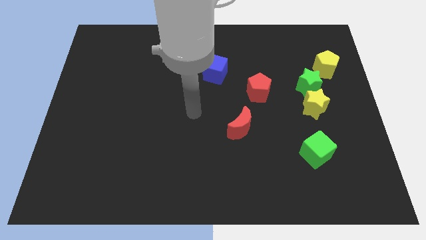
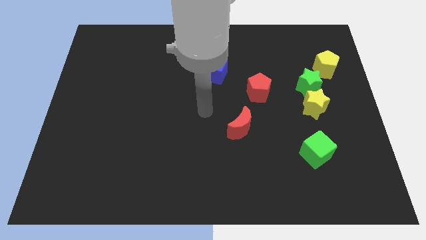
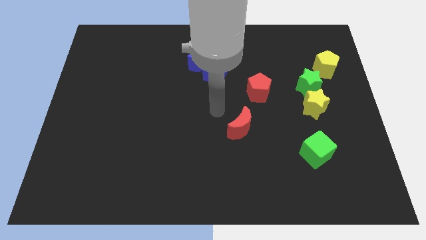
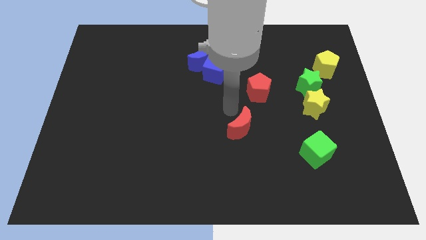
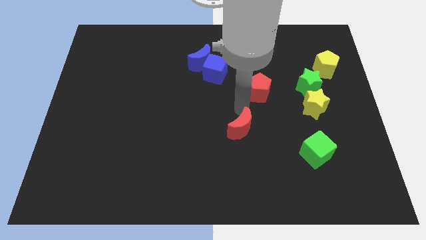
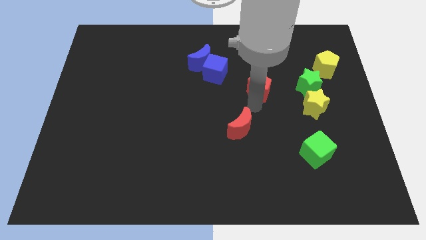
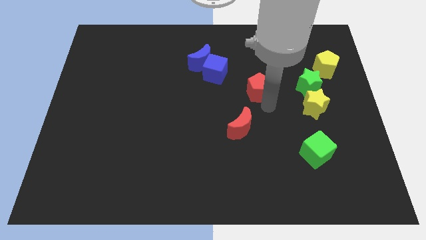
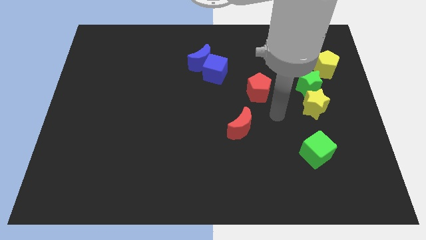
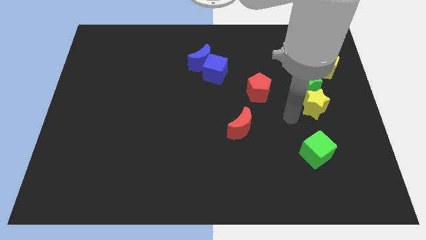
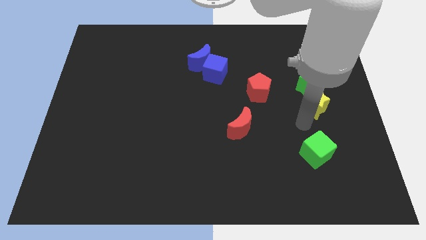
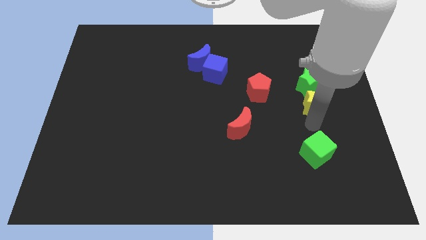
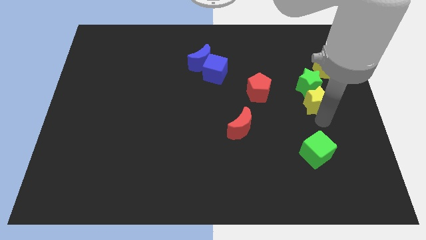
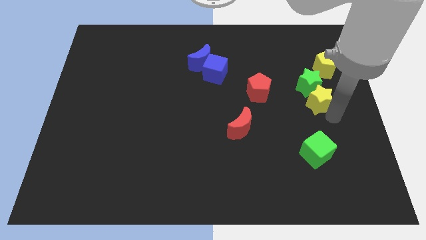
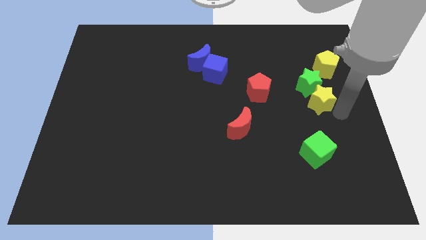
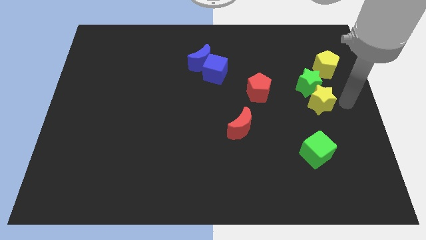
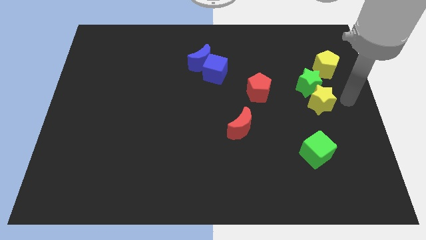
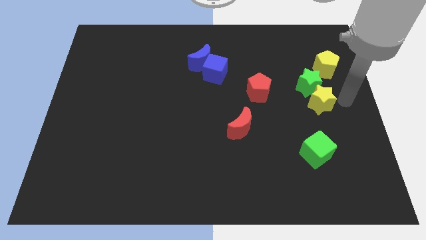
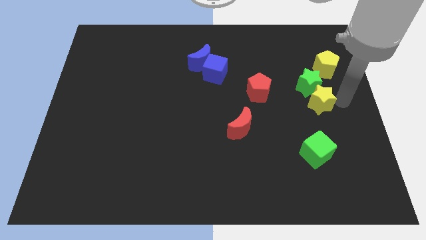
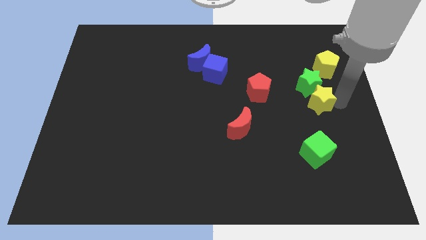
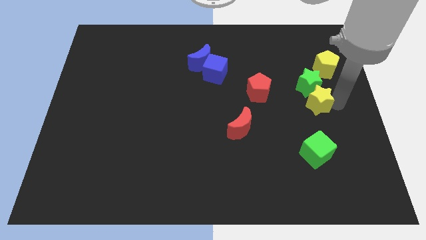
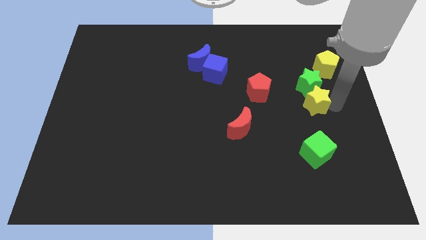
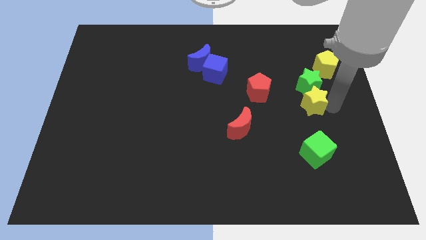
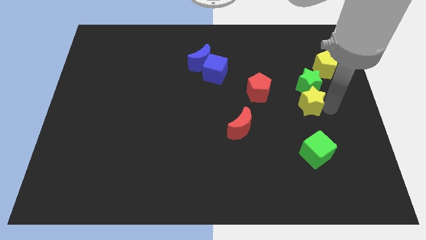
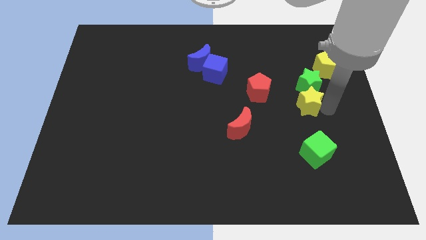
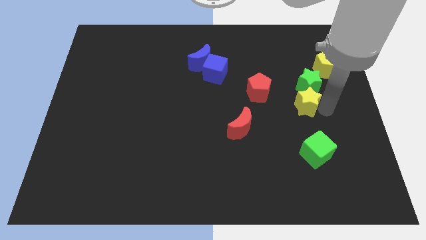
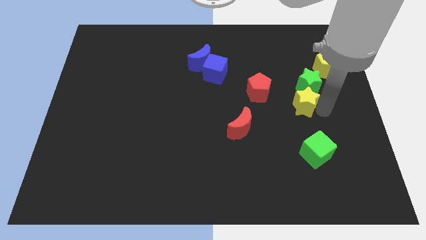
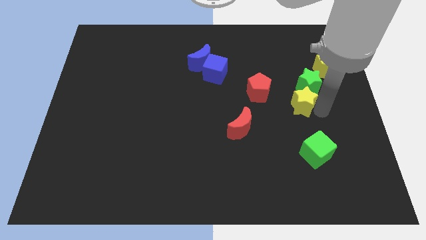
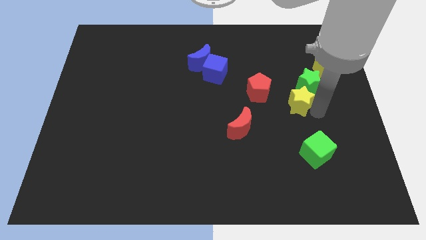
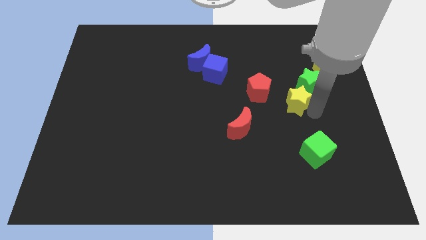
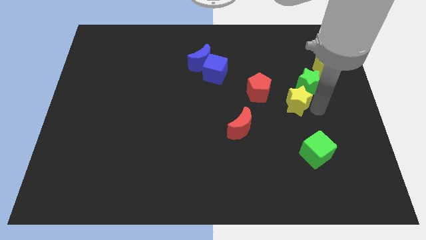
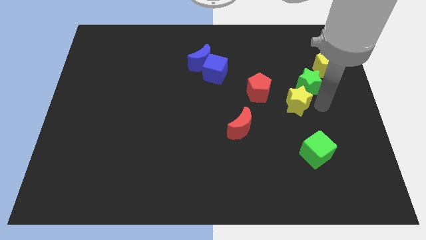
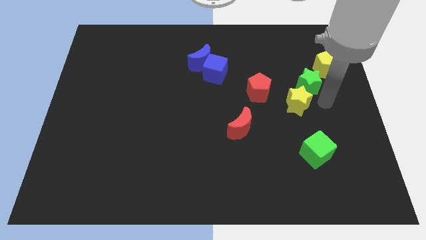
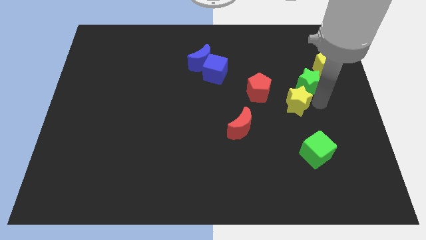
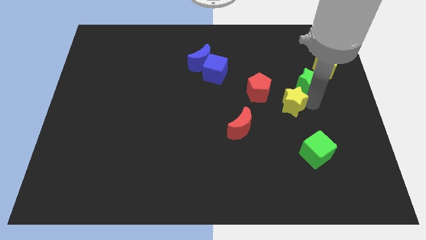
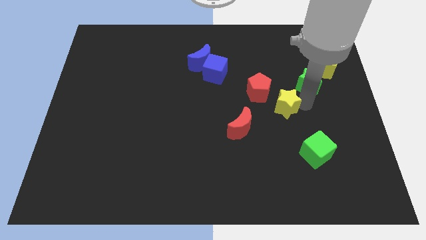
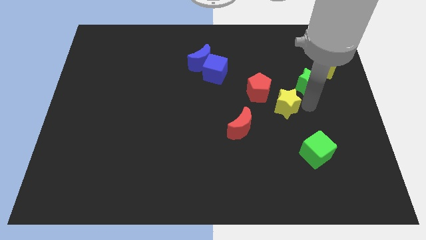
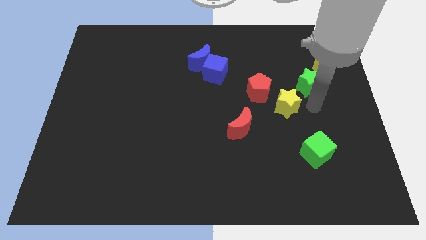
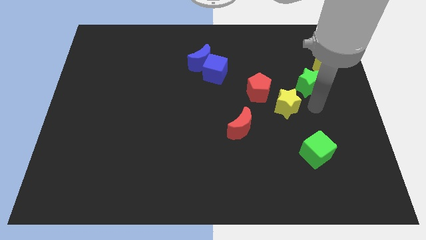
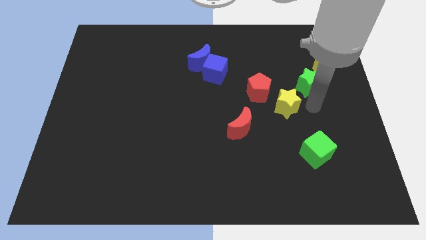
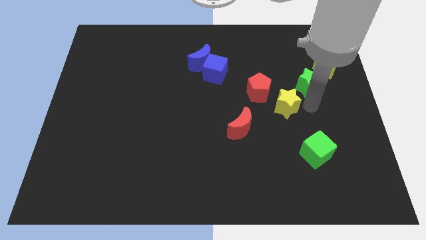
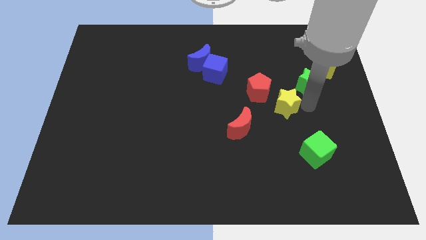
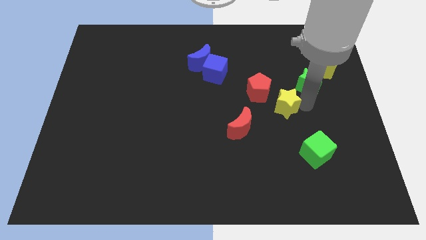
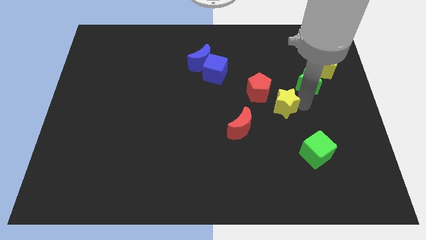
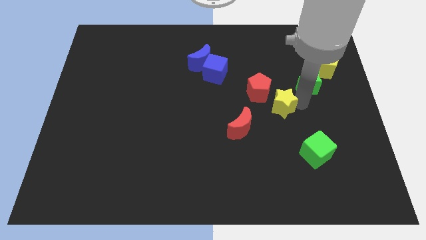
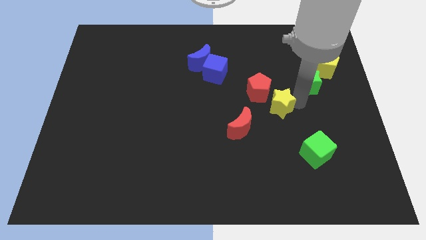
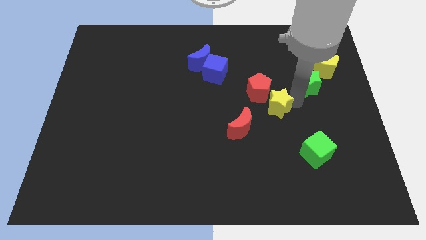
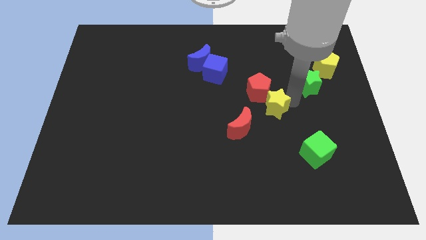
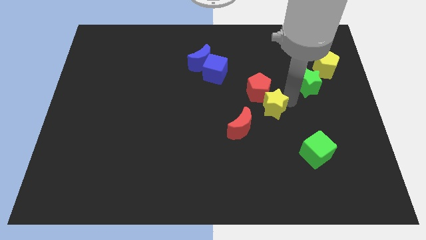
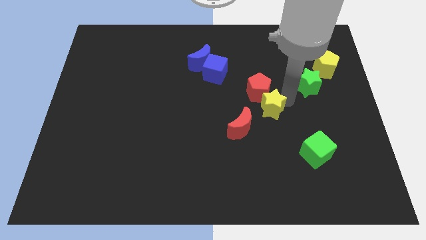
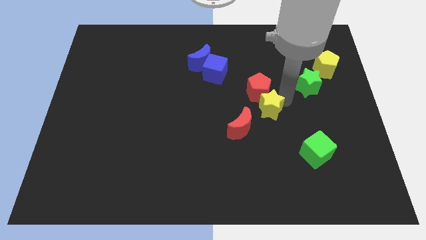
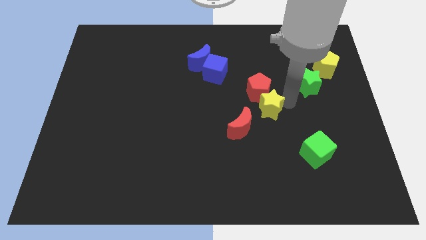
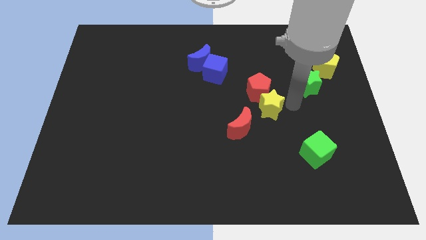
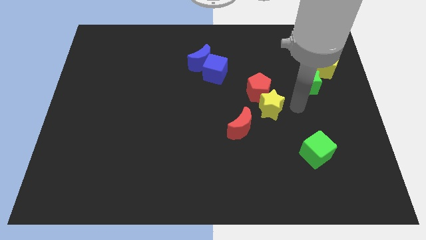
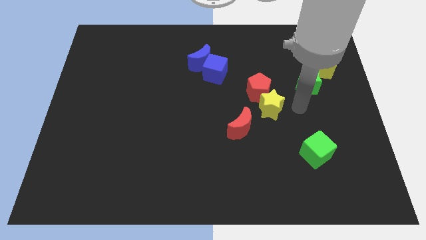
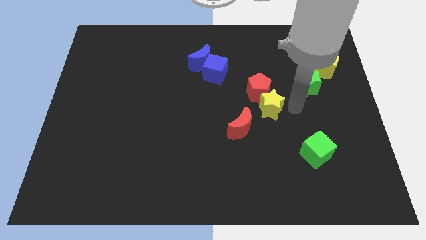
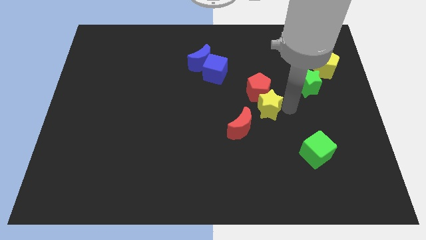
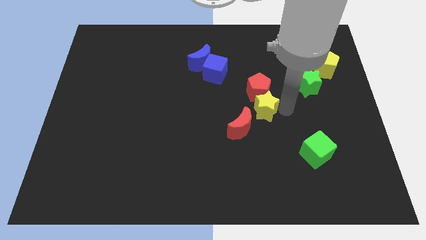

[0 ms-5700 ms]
move the yellow star to the center
